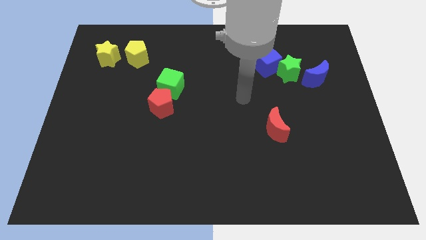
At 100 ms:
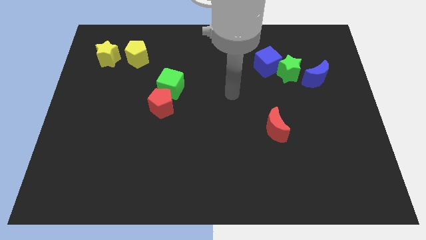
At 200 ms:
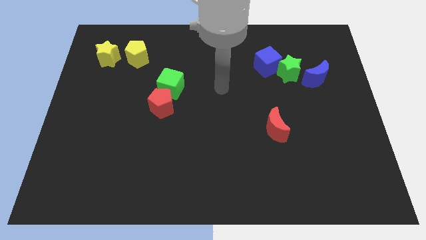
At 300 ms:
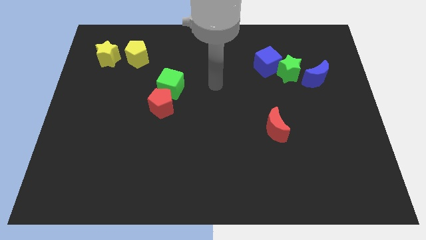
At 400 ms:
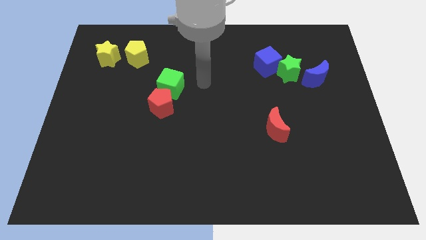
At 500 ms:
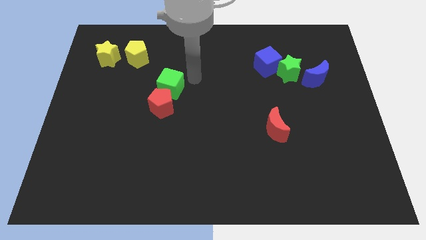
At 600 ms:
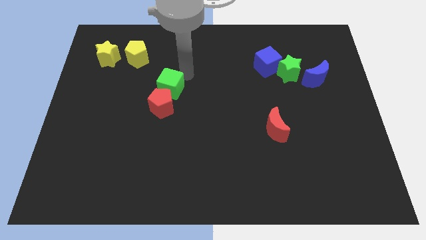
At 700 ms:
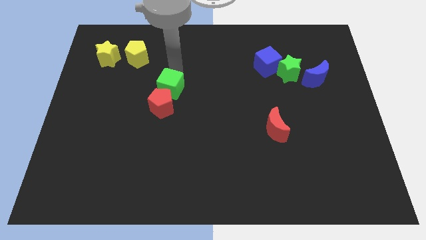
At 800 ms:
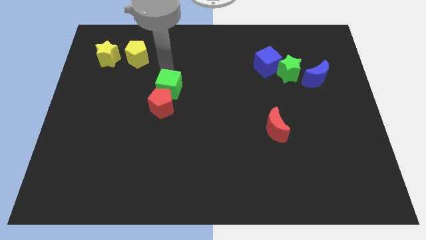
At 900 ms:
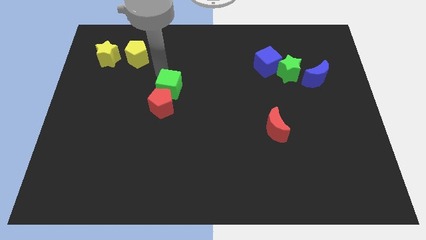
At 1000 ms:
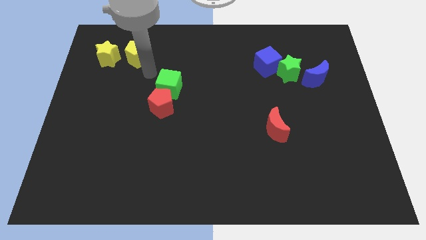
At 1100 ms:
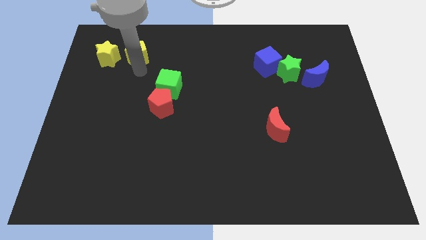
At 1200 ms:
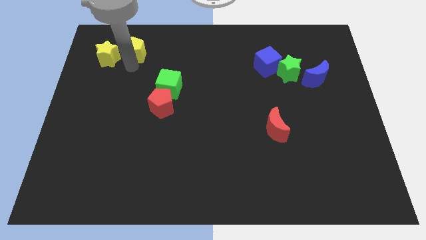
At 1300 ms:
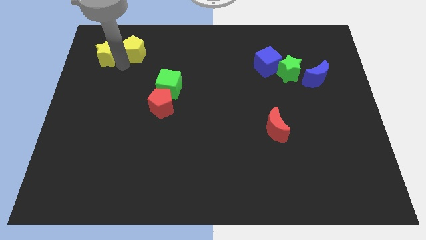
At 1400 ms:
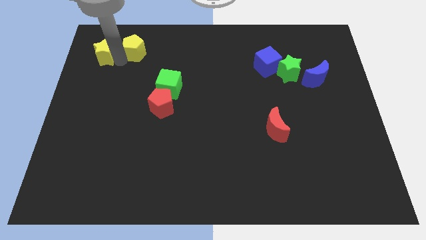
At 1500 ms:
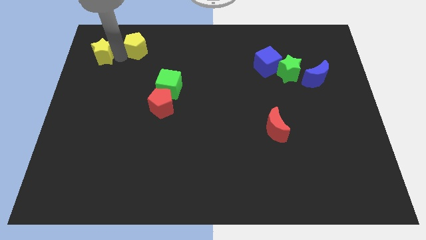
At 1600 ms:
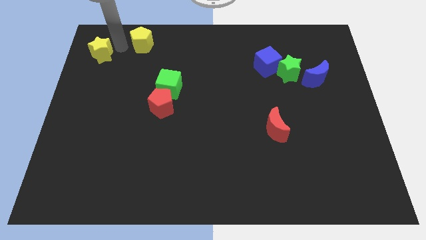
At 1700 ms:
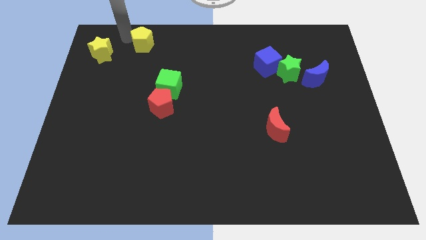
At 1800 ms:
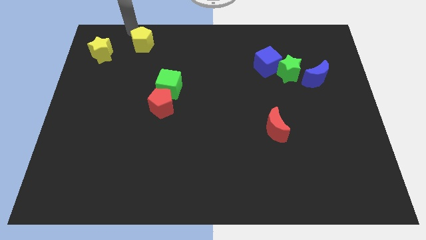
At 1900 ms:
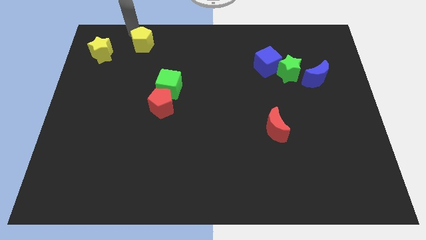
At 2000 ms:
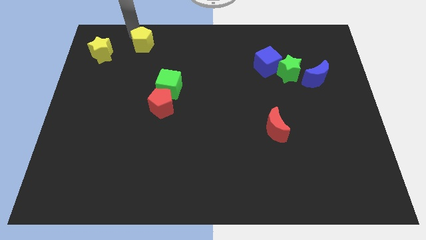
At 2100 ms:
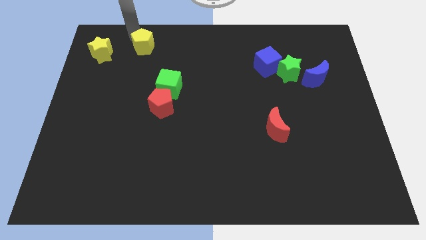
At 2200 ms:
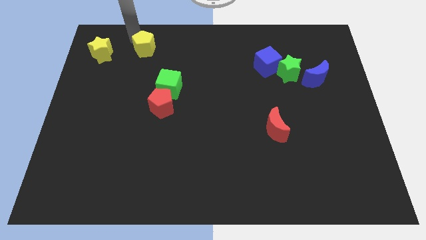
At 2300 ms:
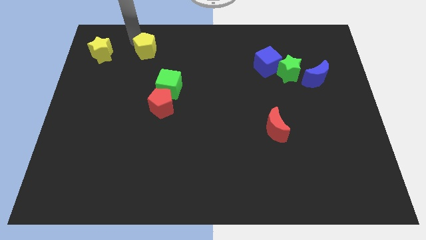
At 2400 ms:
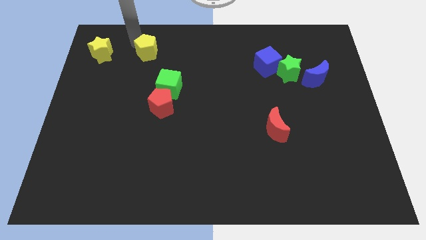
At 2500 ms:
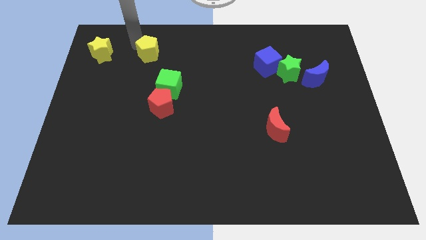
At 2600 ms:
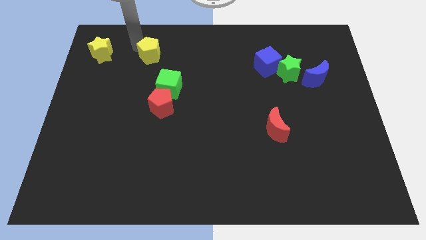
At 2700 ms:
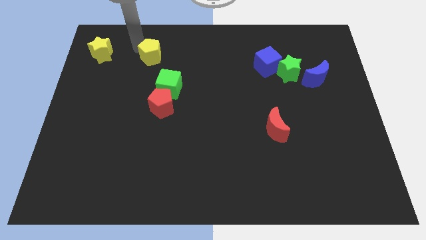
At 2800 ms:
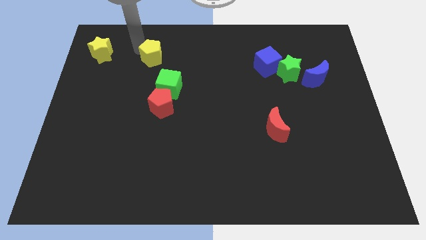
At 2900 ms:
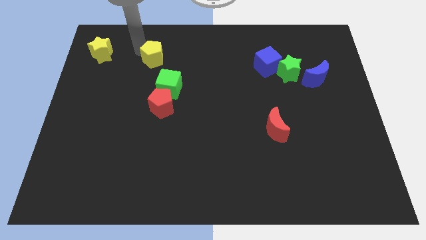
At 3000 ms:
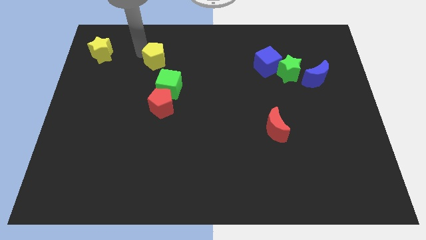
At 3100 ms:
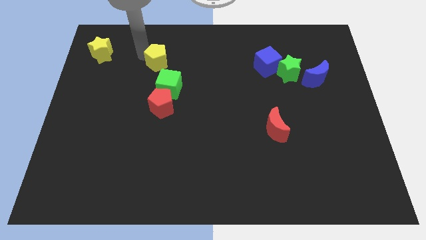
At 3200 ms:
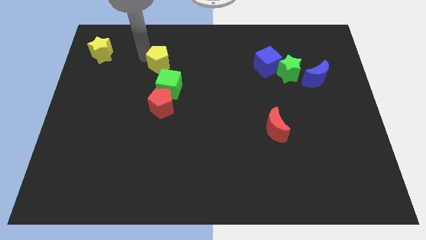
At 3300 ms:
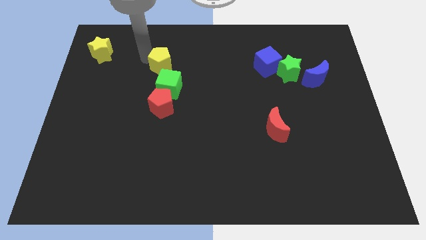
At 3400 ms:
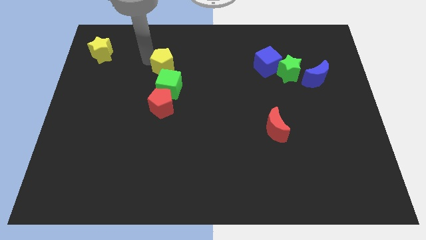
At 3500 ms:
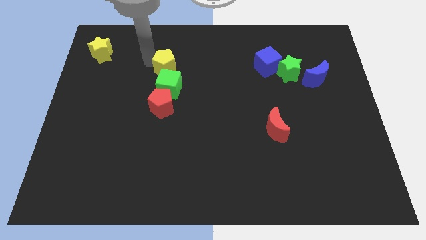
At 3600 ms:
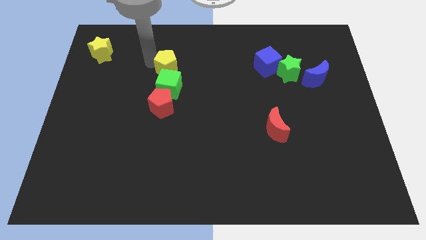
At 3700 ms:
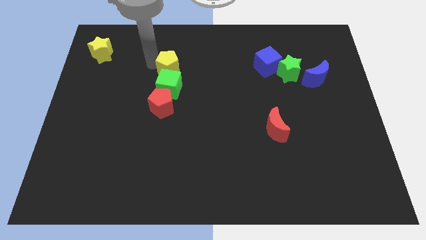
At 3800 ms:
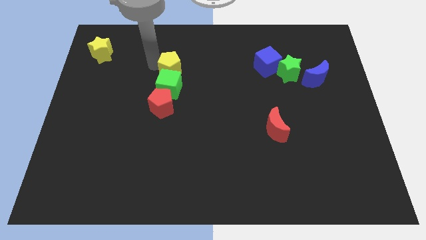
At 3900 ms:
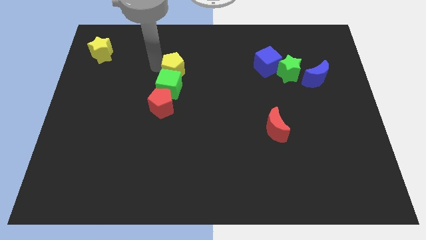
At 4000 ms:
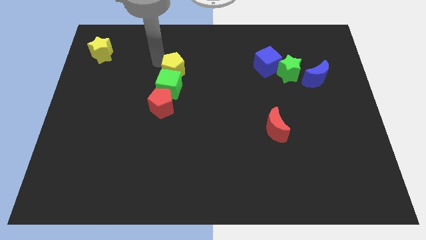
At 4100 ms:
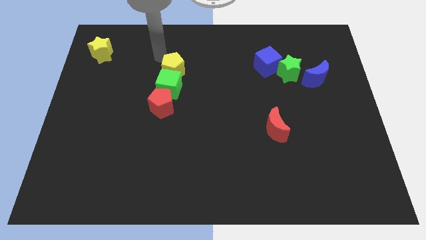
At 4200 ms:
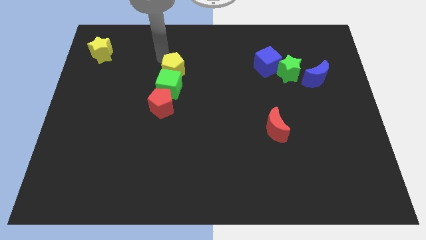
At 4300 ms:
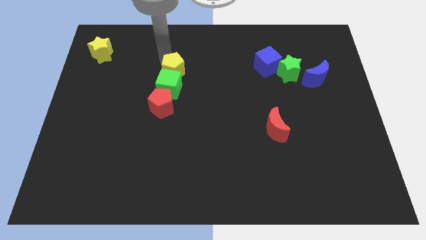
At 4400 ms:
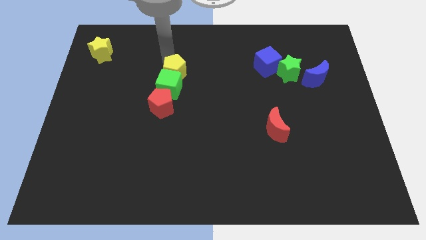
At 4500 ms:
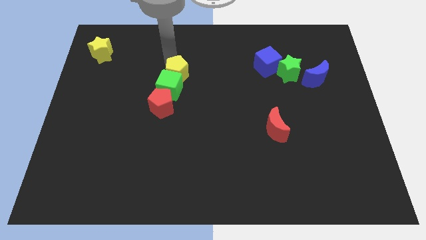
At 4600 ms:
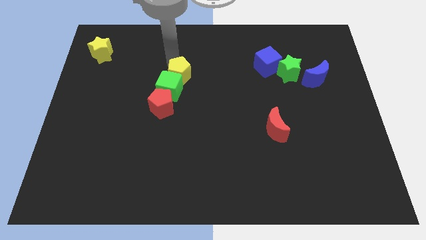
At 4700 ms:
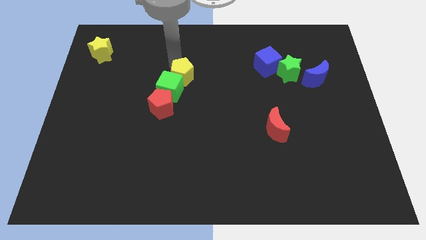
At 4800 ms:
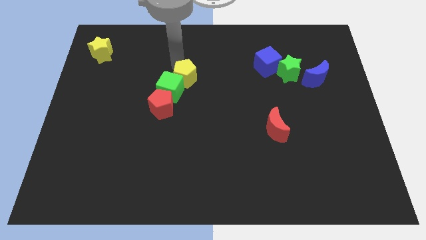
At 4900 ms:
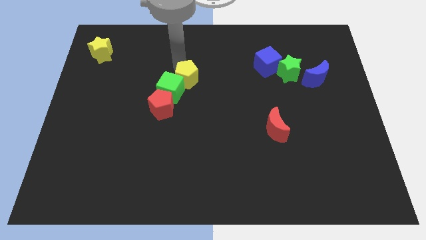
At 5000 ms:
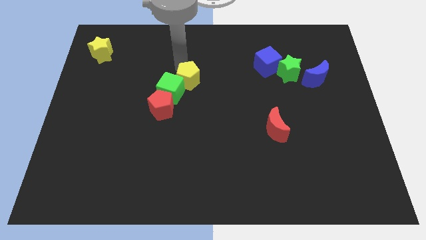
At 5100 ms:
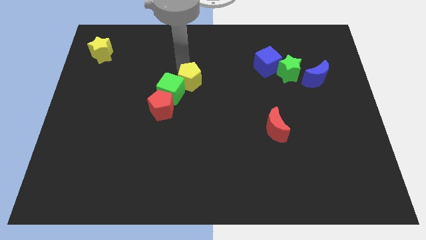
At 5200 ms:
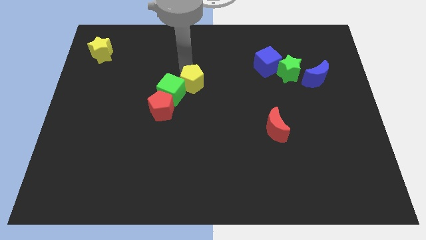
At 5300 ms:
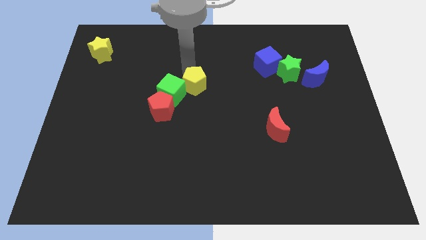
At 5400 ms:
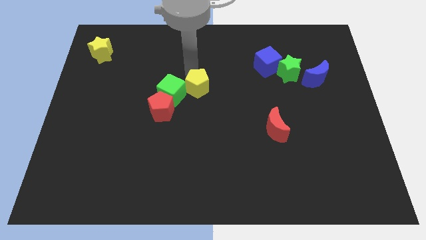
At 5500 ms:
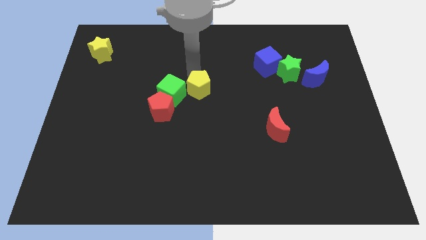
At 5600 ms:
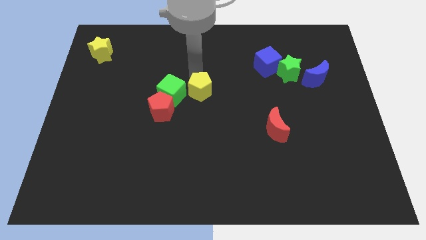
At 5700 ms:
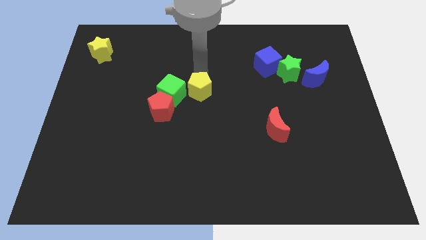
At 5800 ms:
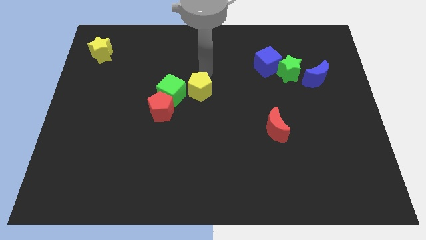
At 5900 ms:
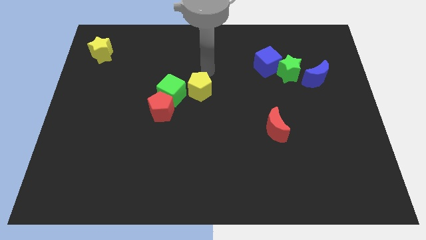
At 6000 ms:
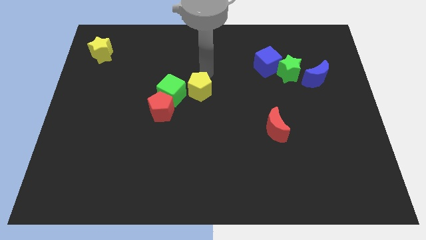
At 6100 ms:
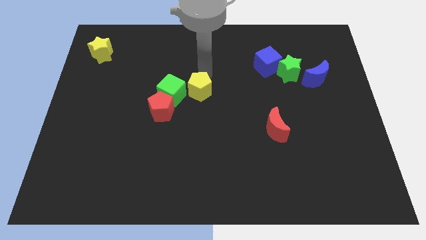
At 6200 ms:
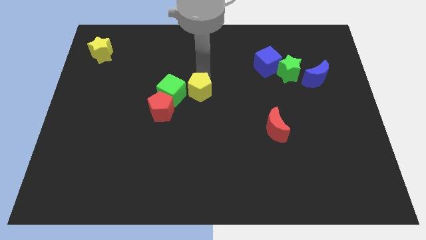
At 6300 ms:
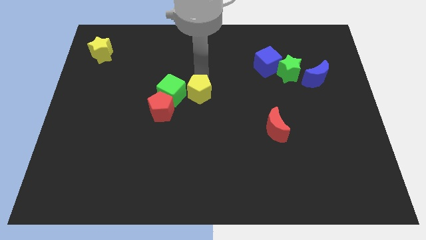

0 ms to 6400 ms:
push the yellow pentagon to the bottom right of the green cube

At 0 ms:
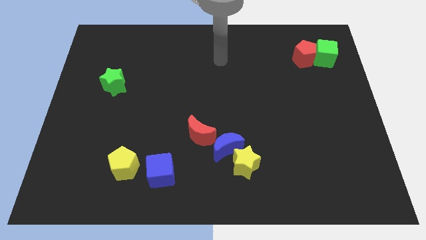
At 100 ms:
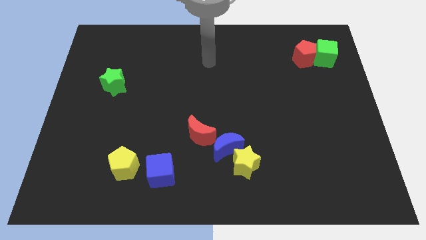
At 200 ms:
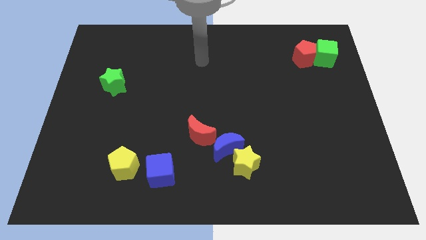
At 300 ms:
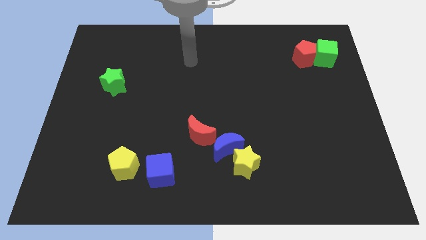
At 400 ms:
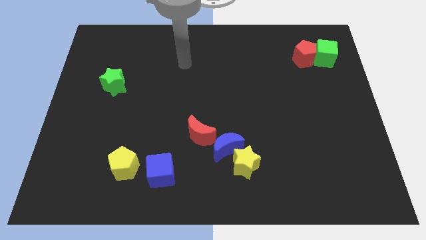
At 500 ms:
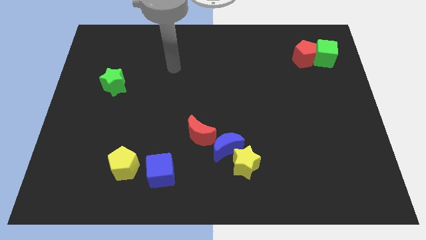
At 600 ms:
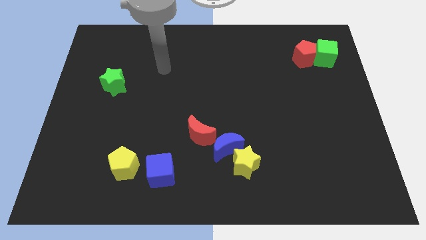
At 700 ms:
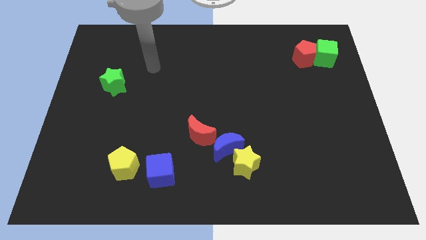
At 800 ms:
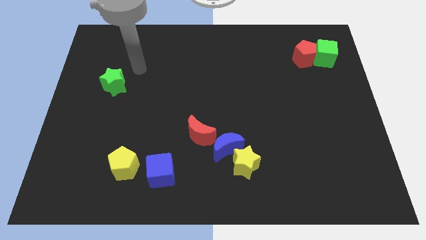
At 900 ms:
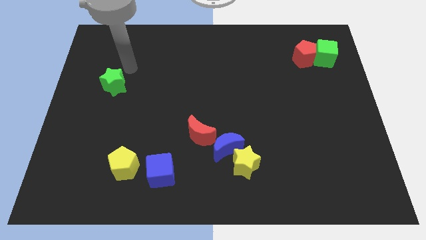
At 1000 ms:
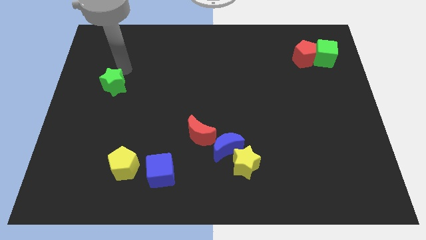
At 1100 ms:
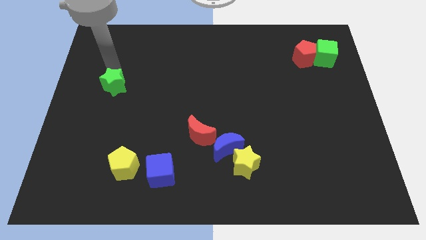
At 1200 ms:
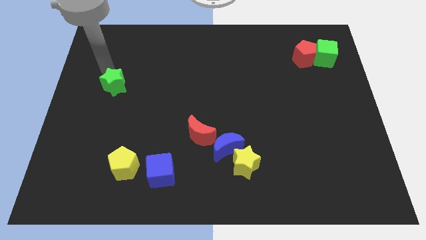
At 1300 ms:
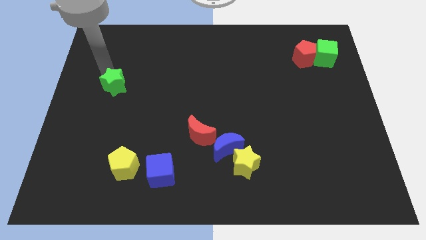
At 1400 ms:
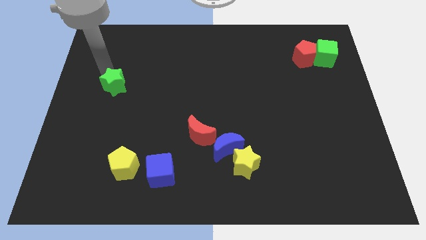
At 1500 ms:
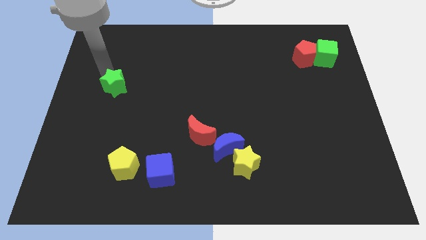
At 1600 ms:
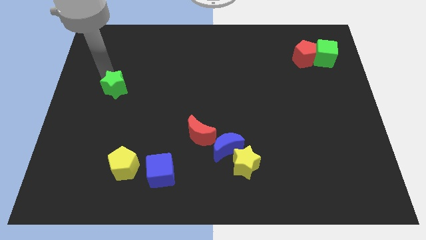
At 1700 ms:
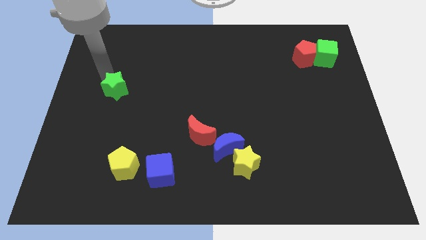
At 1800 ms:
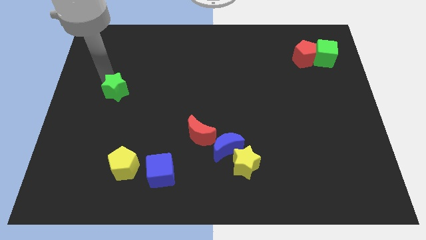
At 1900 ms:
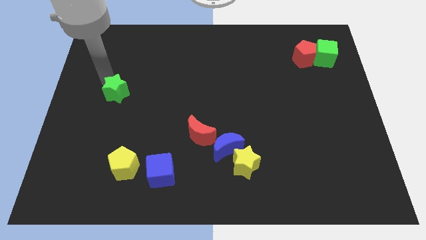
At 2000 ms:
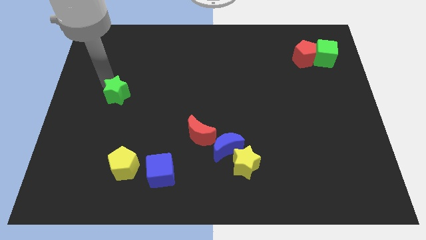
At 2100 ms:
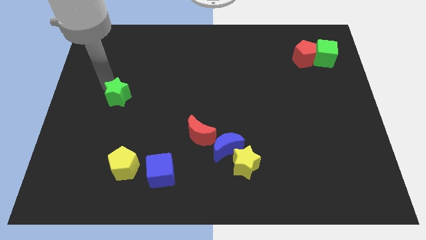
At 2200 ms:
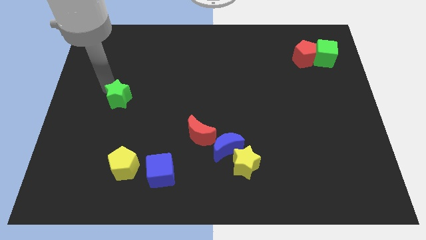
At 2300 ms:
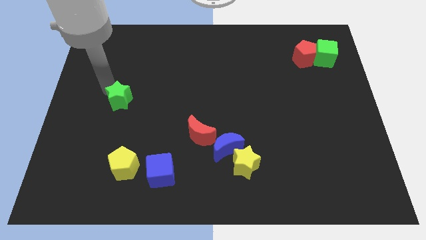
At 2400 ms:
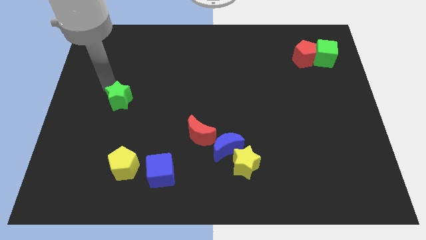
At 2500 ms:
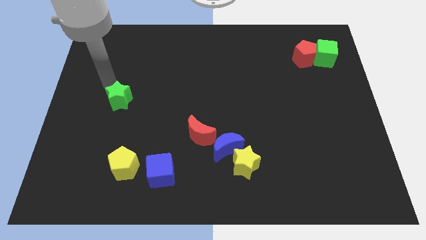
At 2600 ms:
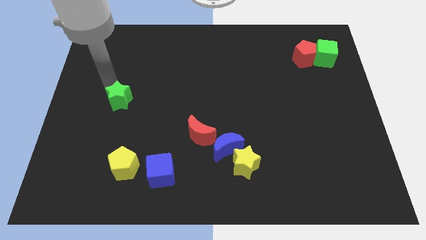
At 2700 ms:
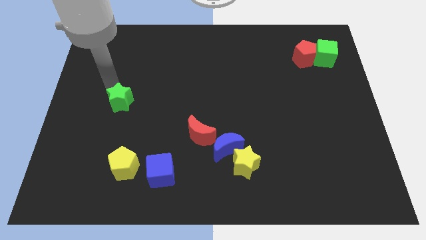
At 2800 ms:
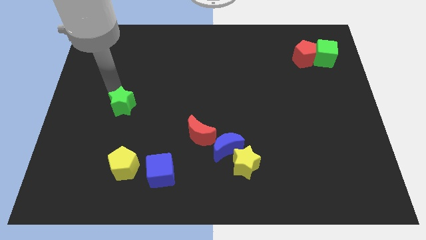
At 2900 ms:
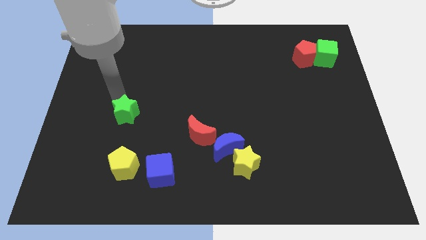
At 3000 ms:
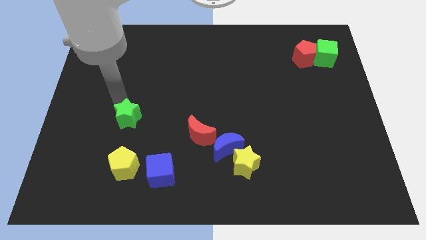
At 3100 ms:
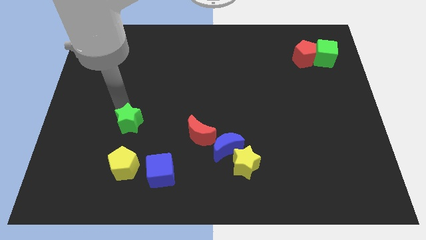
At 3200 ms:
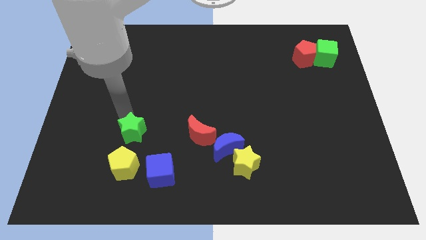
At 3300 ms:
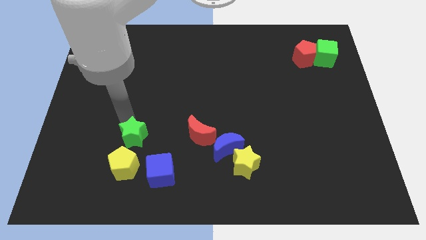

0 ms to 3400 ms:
slide the green star to the top right side of the yellow pentagon
